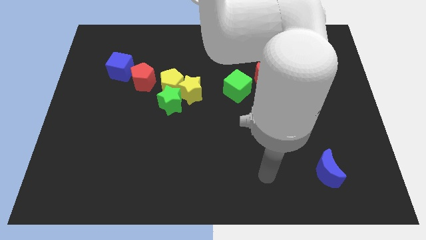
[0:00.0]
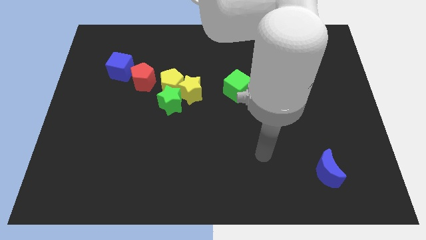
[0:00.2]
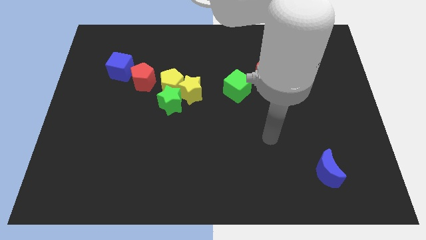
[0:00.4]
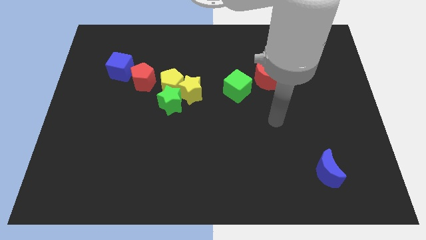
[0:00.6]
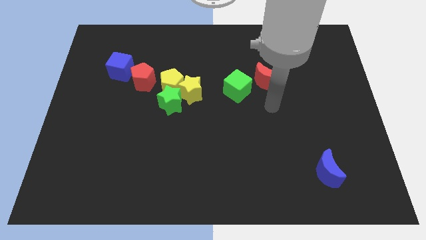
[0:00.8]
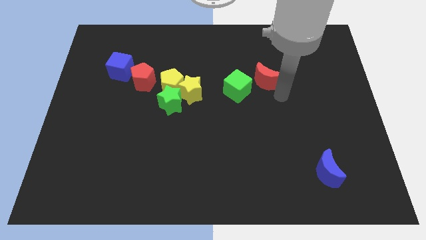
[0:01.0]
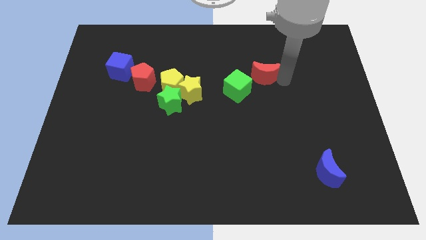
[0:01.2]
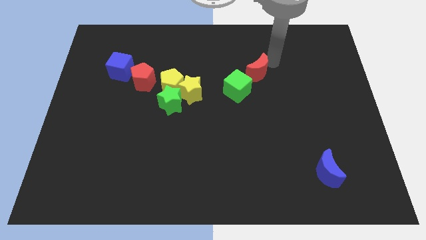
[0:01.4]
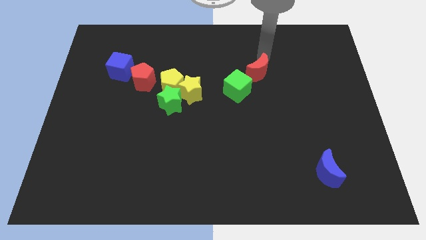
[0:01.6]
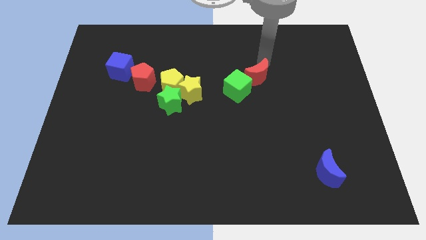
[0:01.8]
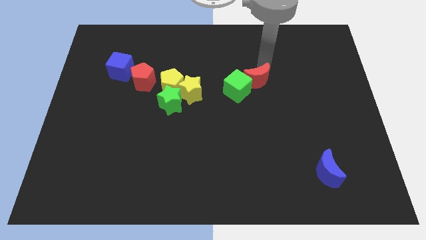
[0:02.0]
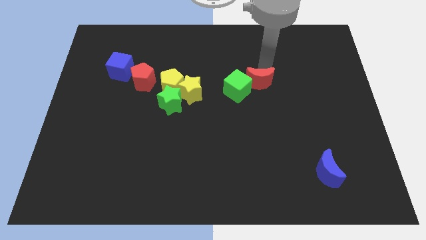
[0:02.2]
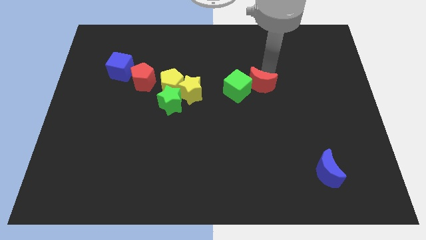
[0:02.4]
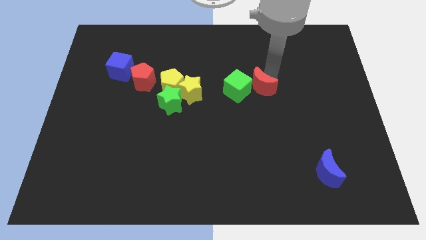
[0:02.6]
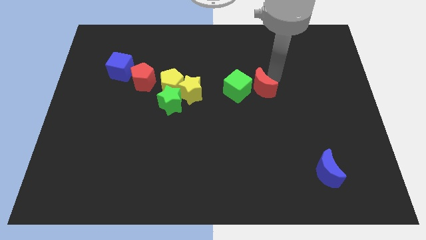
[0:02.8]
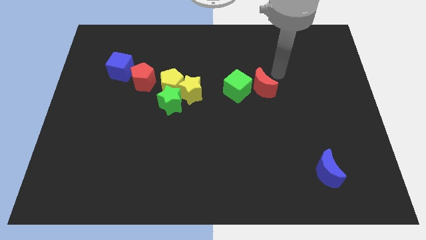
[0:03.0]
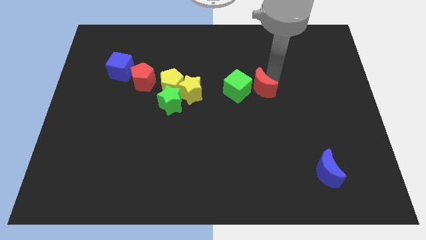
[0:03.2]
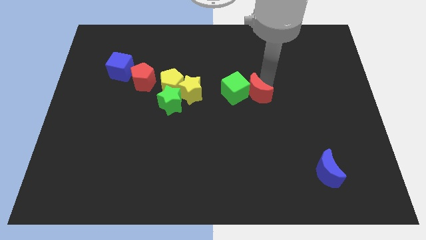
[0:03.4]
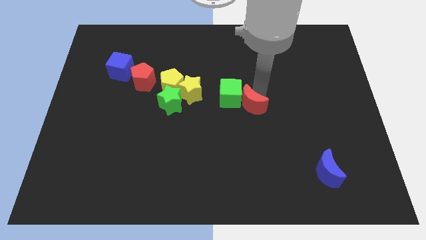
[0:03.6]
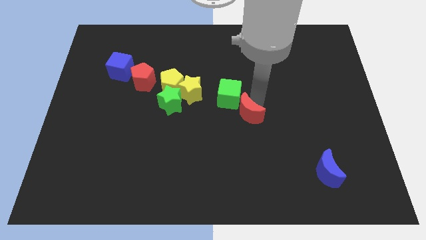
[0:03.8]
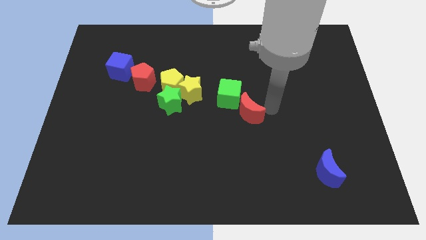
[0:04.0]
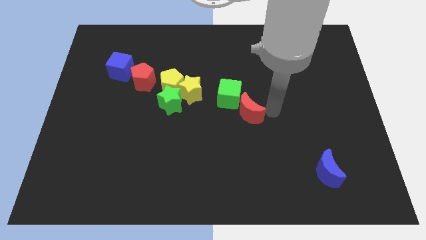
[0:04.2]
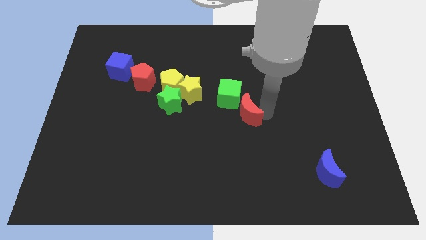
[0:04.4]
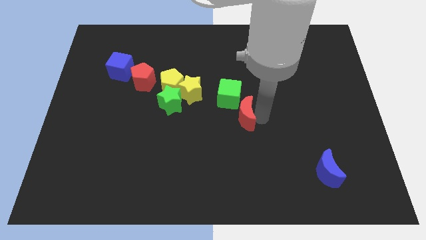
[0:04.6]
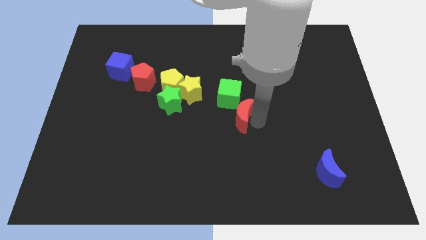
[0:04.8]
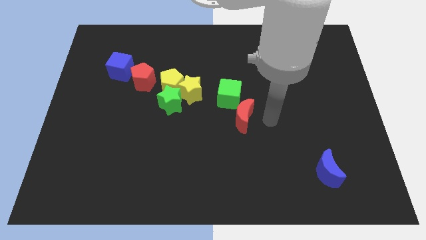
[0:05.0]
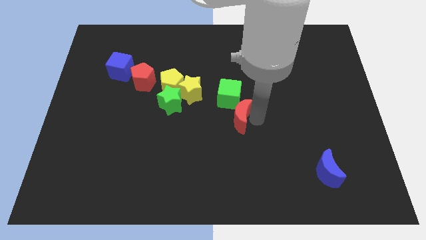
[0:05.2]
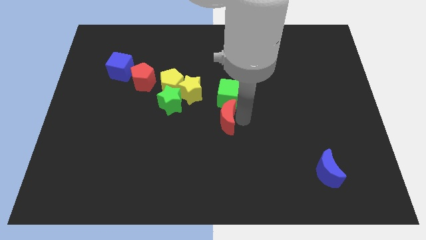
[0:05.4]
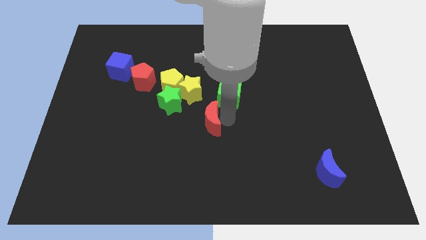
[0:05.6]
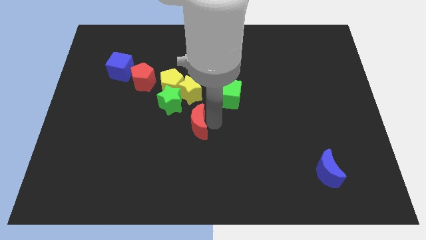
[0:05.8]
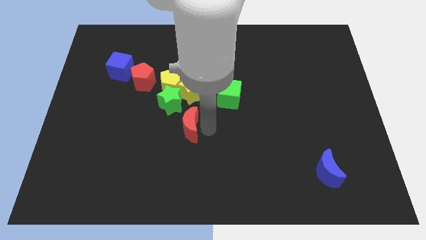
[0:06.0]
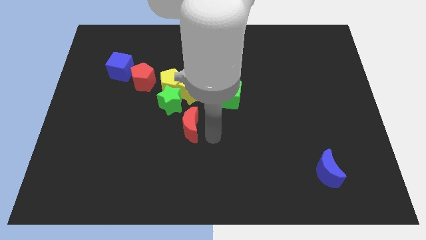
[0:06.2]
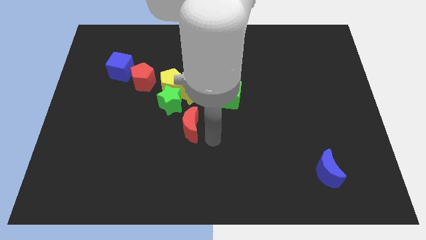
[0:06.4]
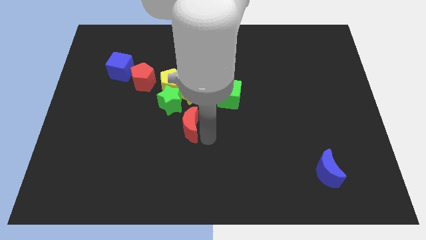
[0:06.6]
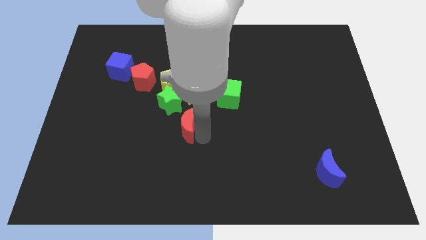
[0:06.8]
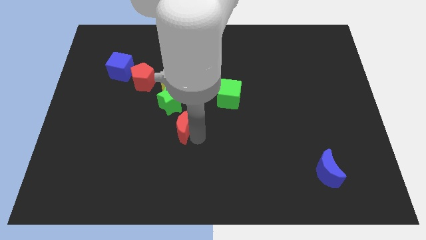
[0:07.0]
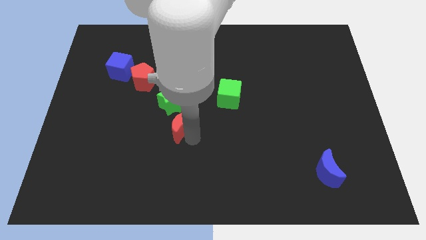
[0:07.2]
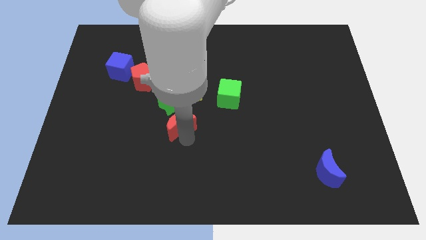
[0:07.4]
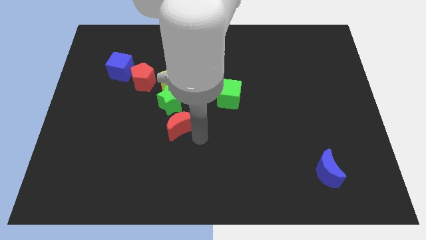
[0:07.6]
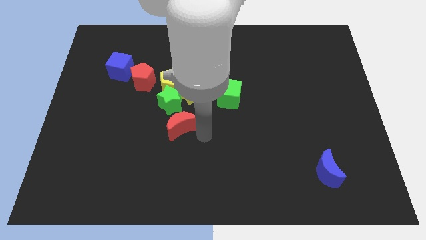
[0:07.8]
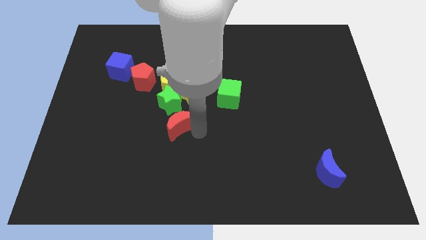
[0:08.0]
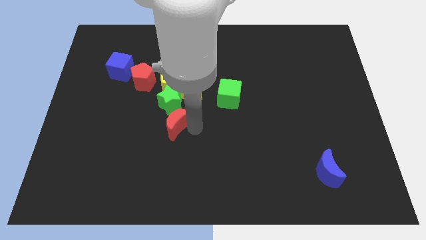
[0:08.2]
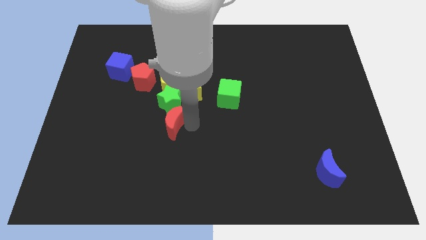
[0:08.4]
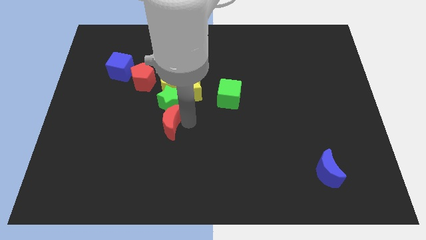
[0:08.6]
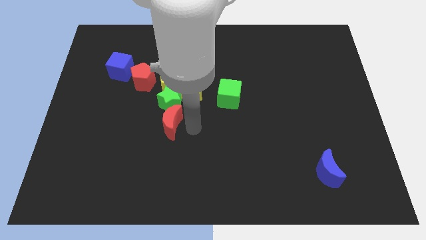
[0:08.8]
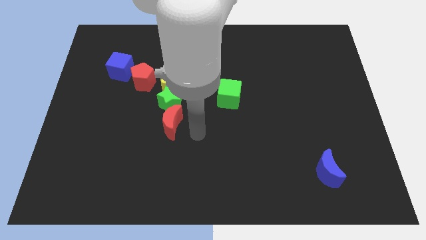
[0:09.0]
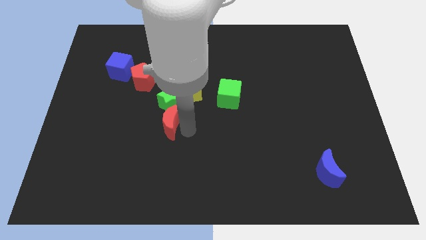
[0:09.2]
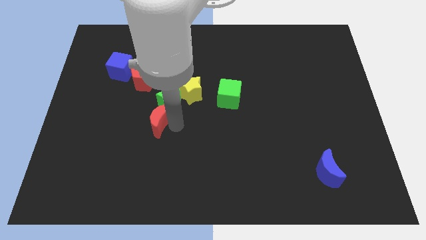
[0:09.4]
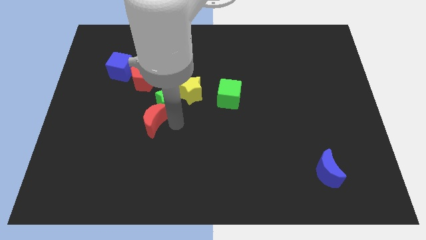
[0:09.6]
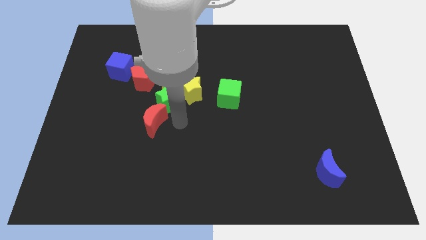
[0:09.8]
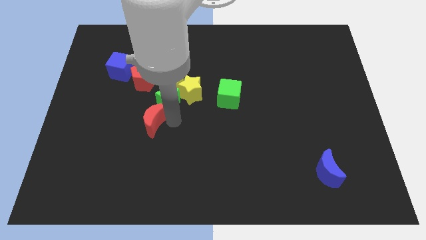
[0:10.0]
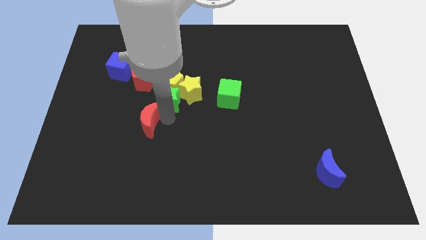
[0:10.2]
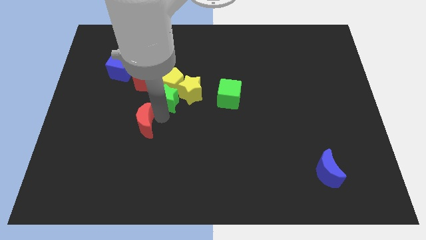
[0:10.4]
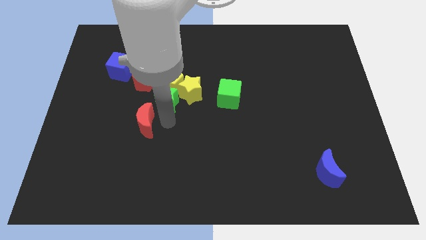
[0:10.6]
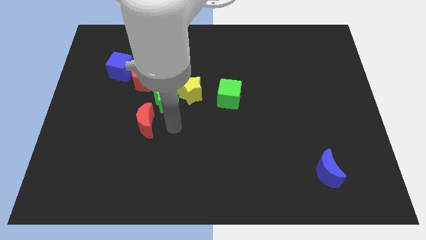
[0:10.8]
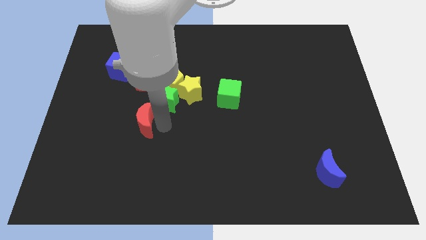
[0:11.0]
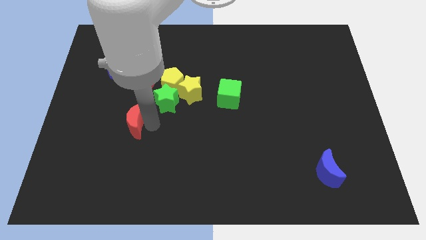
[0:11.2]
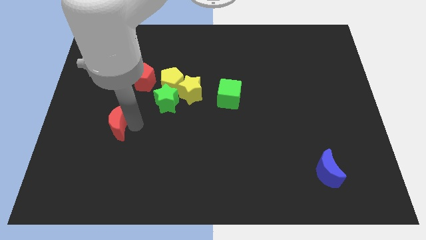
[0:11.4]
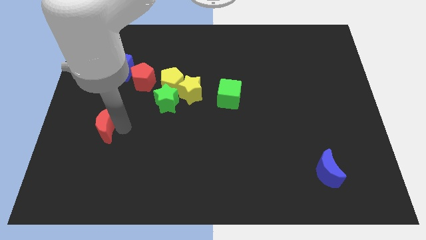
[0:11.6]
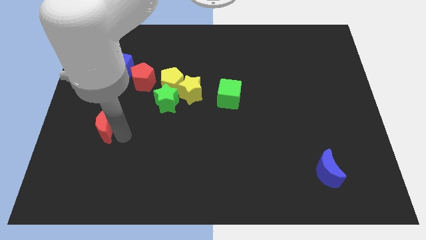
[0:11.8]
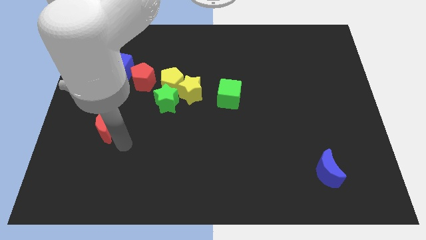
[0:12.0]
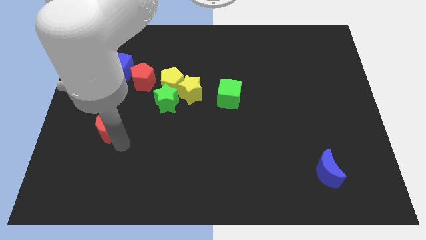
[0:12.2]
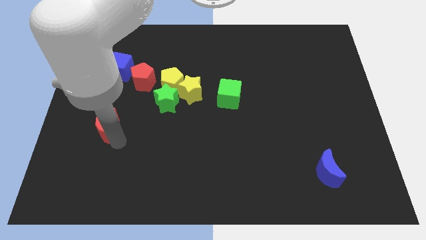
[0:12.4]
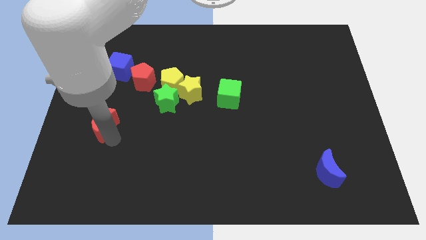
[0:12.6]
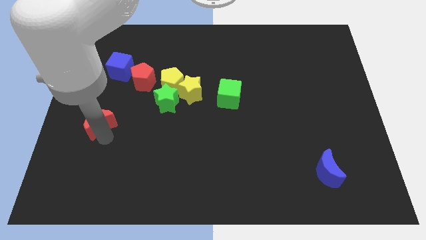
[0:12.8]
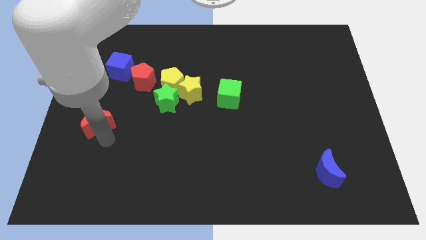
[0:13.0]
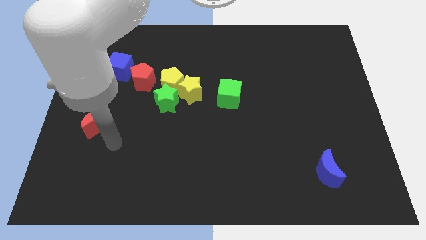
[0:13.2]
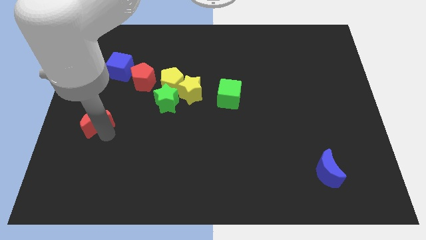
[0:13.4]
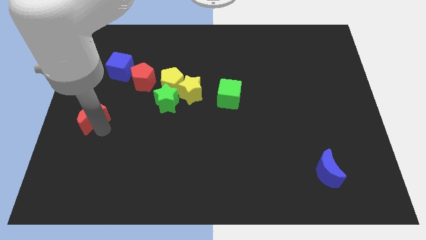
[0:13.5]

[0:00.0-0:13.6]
move the red moon to the left side

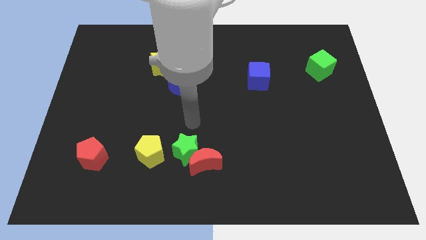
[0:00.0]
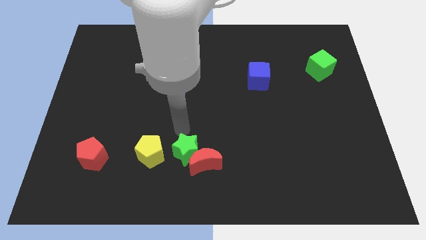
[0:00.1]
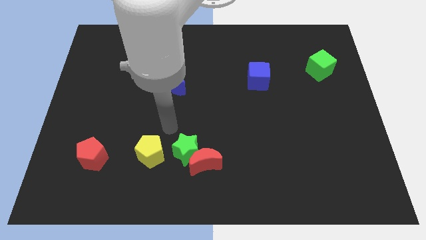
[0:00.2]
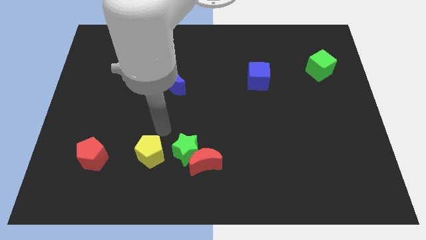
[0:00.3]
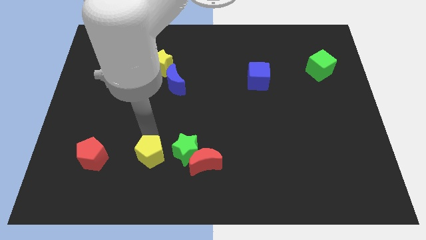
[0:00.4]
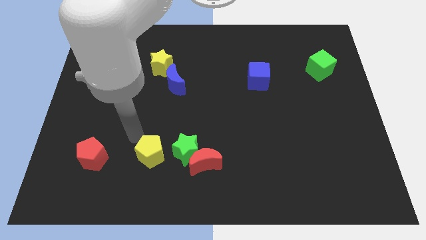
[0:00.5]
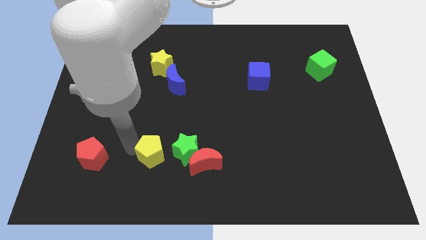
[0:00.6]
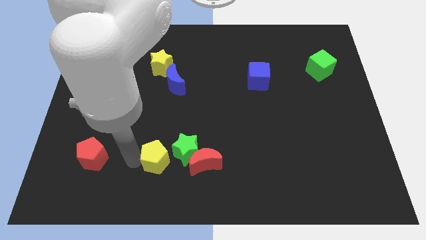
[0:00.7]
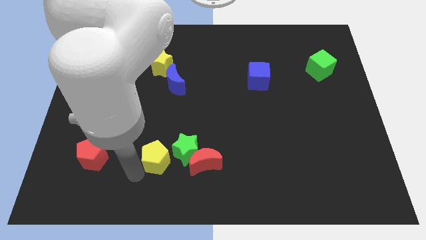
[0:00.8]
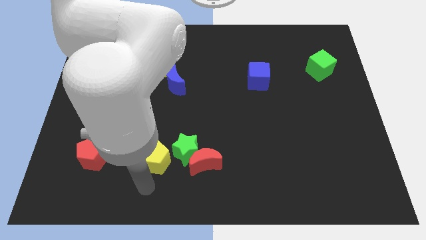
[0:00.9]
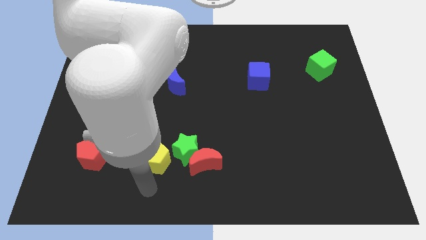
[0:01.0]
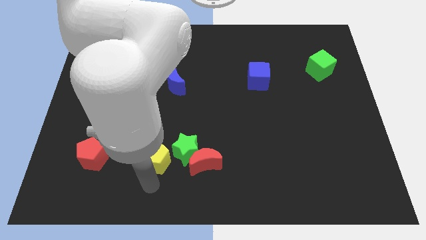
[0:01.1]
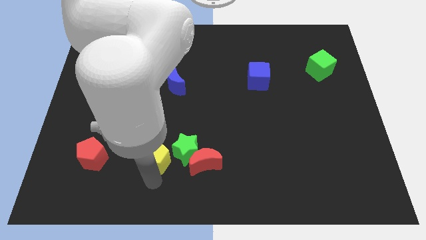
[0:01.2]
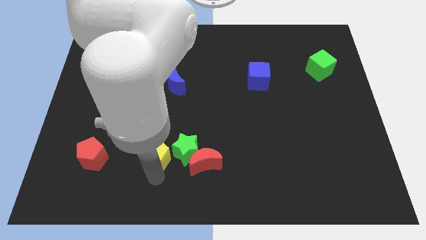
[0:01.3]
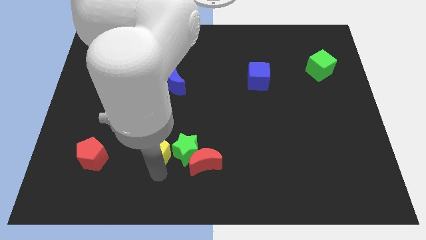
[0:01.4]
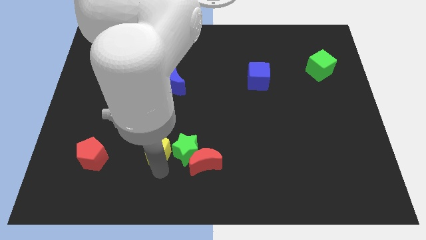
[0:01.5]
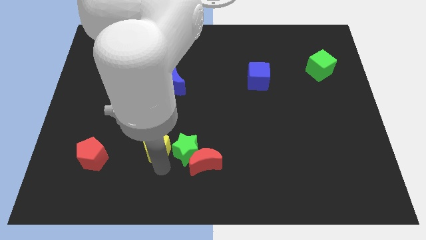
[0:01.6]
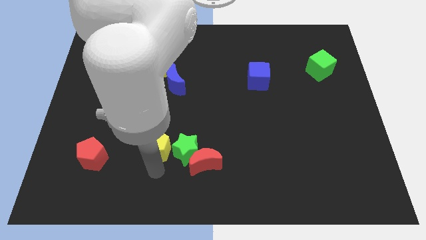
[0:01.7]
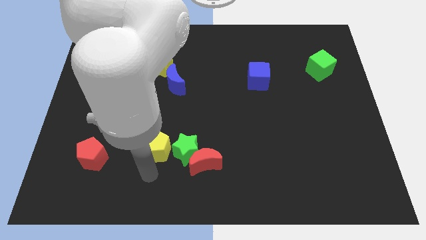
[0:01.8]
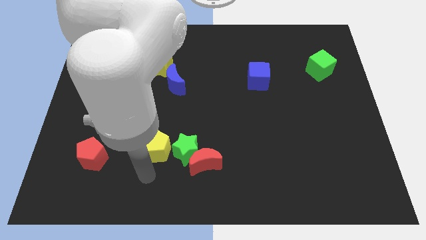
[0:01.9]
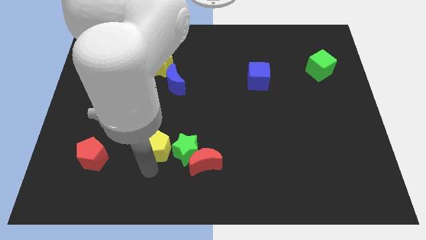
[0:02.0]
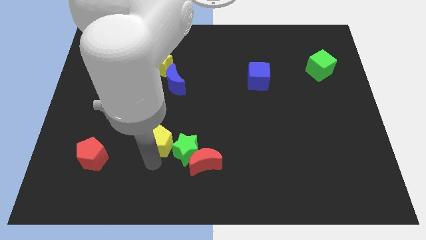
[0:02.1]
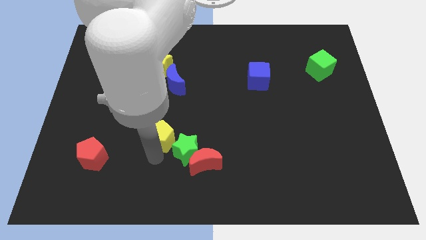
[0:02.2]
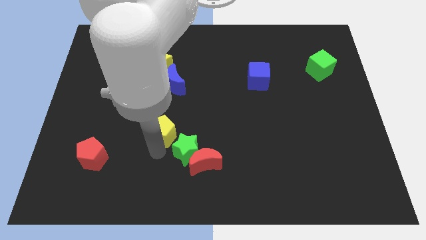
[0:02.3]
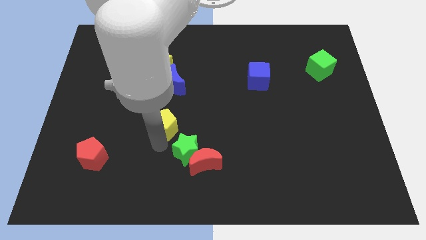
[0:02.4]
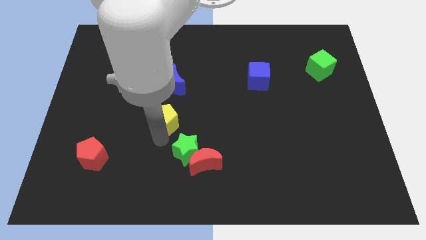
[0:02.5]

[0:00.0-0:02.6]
slide the yellow pentagon to the middle
